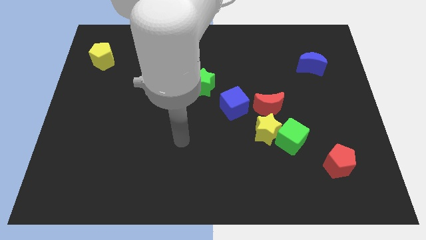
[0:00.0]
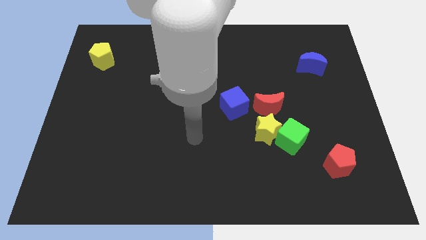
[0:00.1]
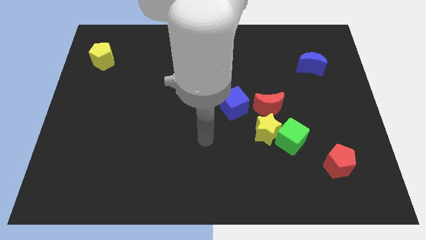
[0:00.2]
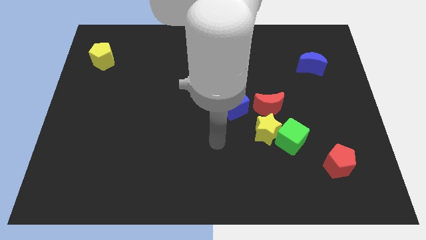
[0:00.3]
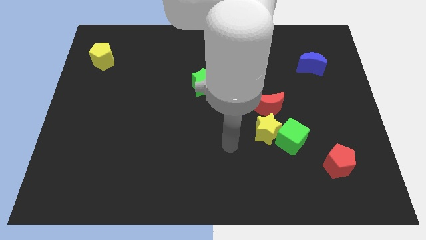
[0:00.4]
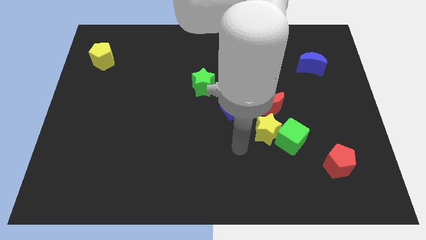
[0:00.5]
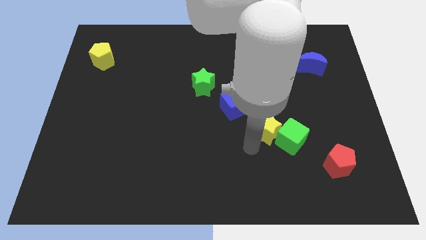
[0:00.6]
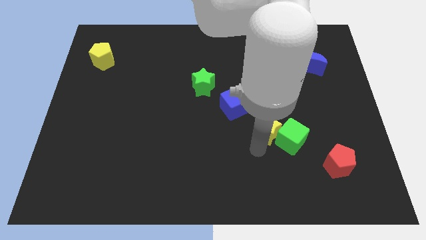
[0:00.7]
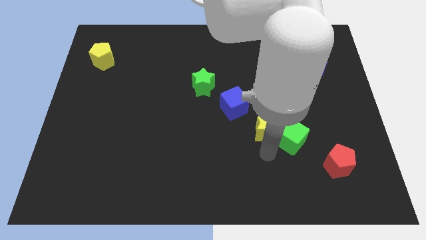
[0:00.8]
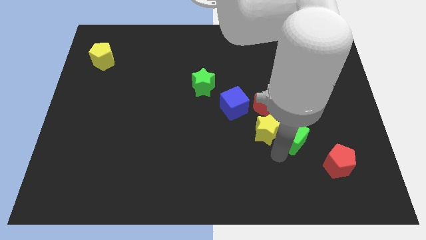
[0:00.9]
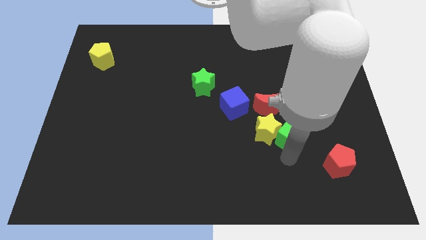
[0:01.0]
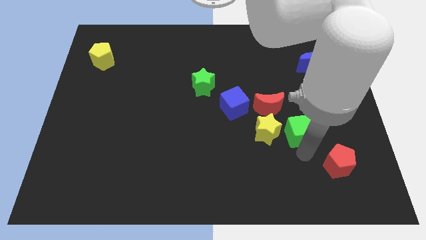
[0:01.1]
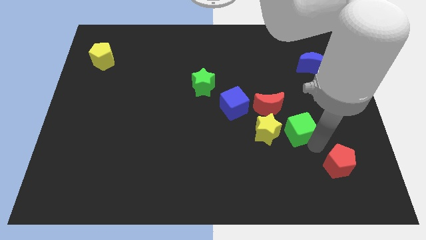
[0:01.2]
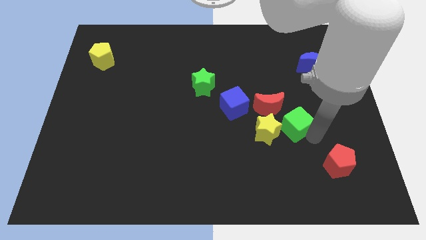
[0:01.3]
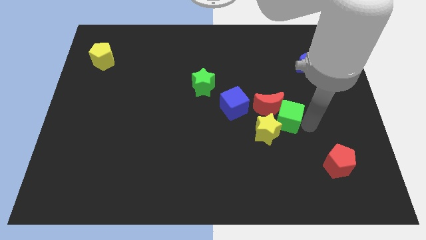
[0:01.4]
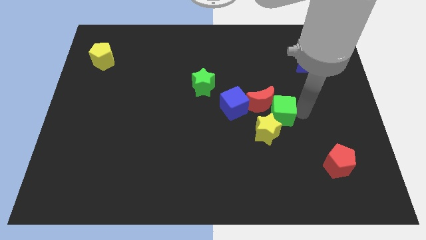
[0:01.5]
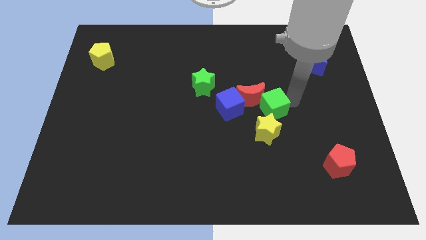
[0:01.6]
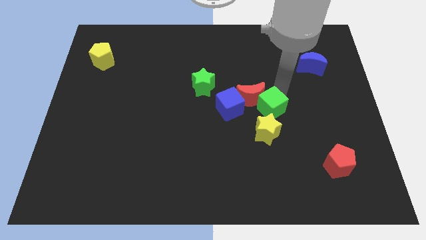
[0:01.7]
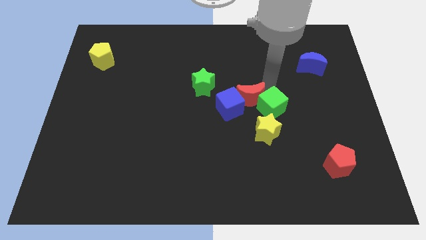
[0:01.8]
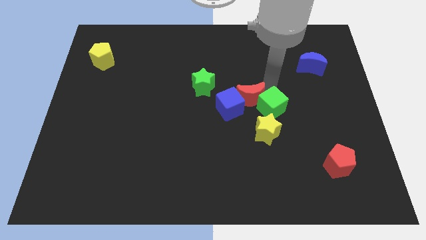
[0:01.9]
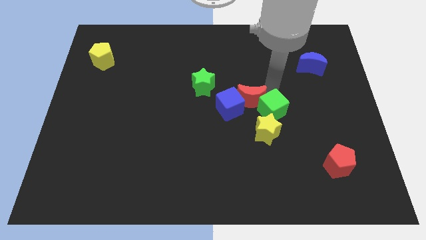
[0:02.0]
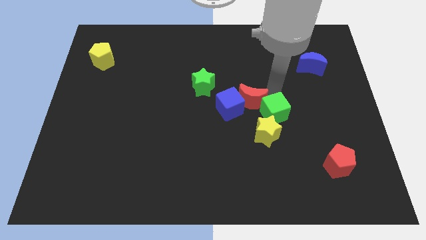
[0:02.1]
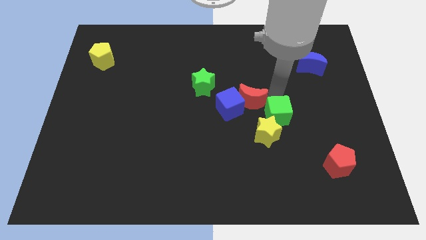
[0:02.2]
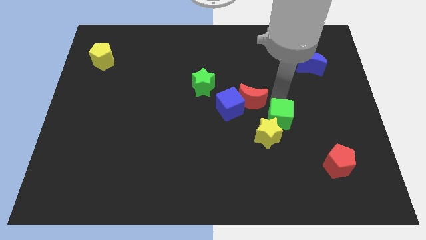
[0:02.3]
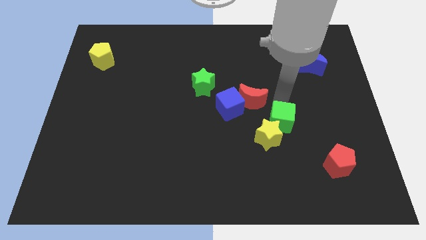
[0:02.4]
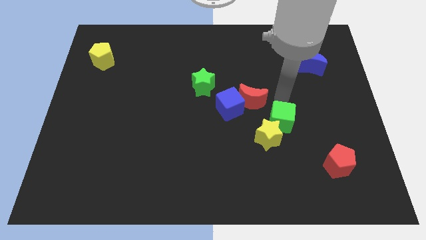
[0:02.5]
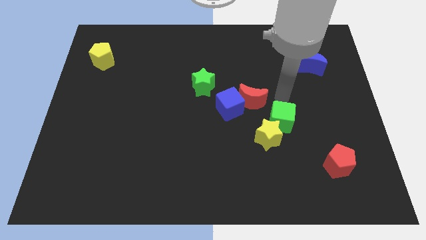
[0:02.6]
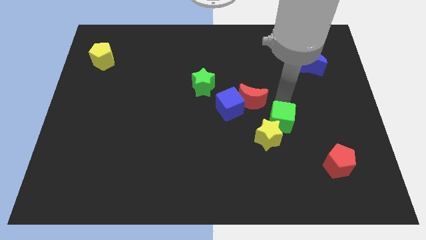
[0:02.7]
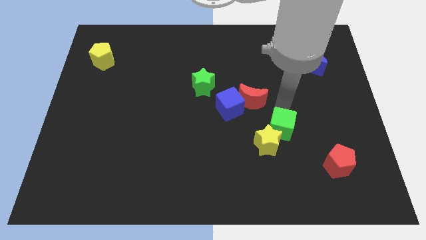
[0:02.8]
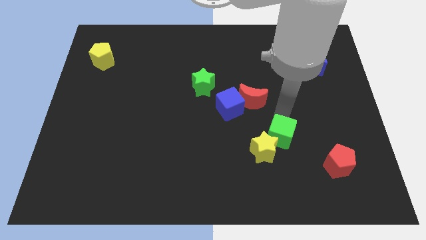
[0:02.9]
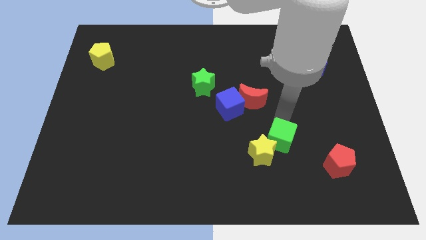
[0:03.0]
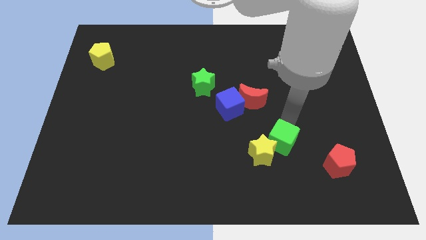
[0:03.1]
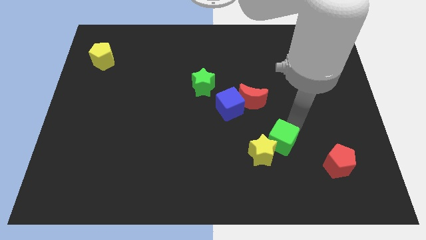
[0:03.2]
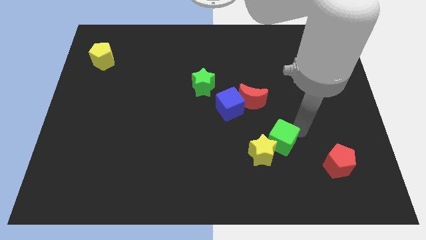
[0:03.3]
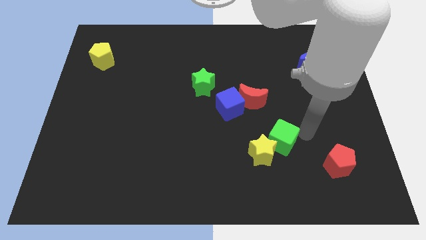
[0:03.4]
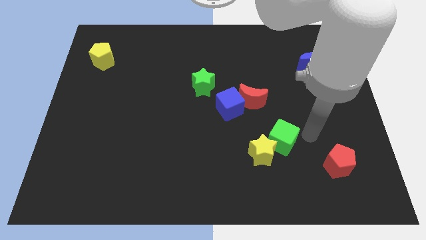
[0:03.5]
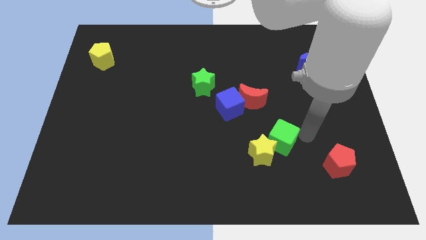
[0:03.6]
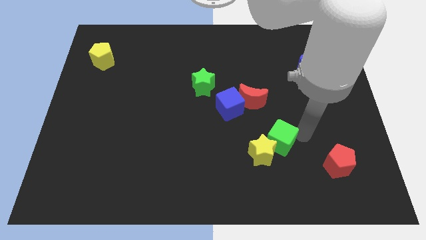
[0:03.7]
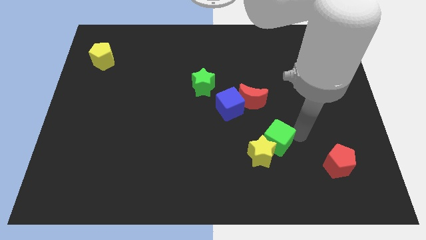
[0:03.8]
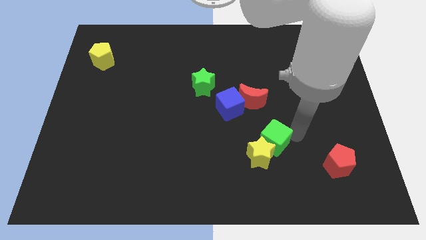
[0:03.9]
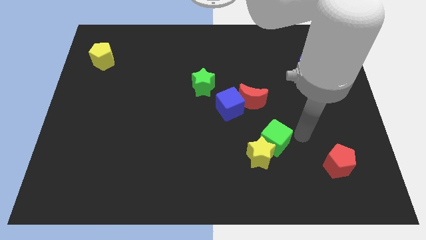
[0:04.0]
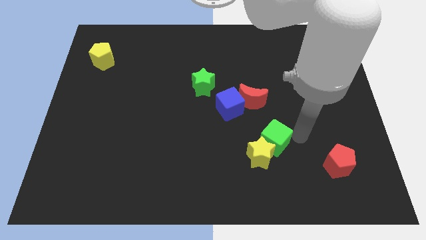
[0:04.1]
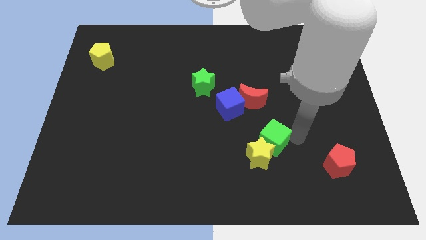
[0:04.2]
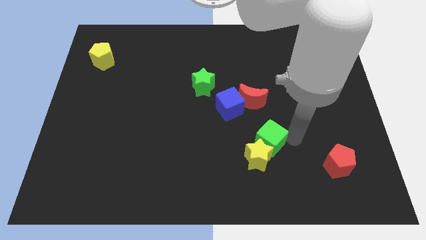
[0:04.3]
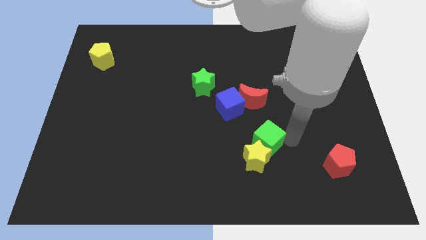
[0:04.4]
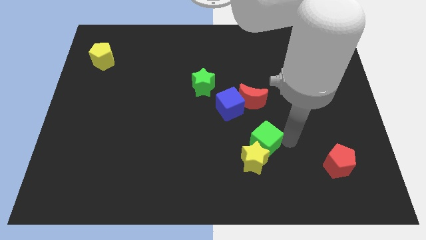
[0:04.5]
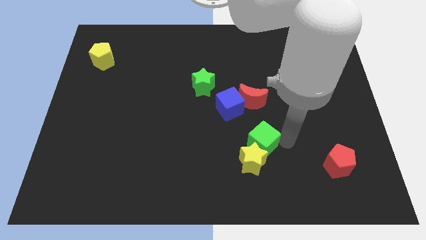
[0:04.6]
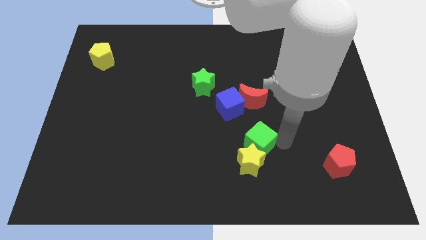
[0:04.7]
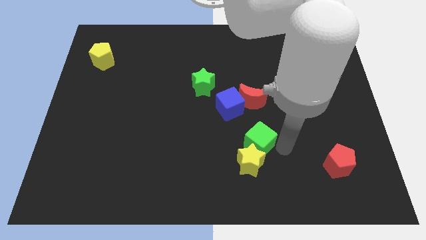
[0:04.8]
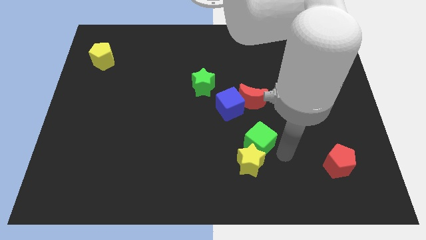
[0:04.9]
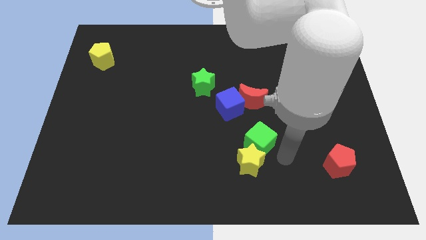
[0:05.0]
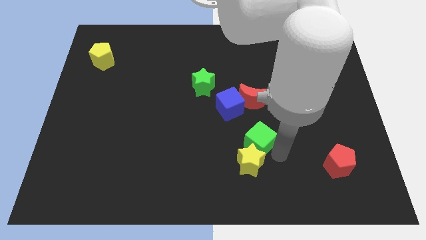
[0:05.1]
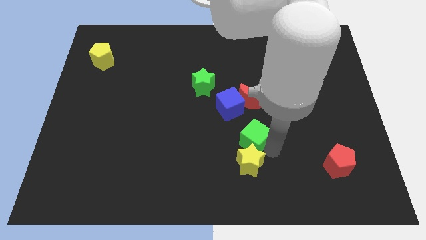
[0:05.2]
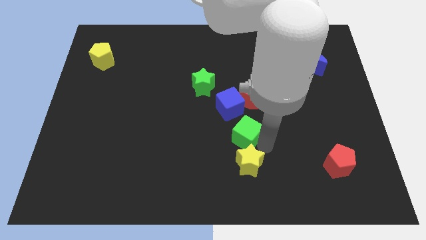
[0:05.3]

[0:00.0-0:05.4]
put the green cube to the middle of the board

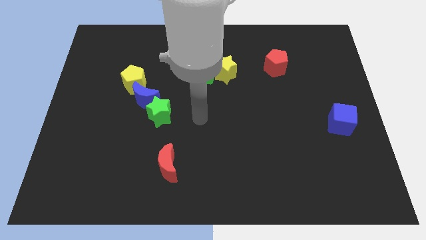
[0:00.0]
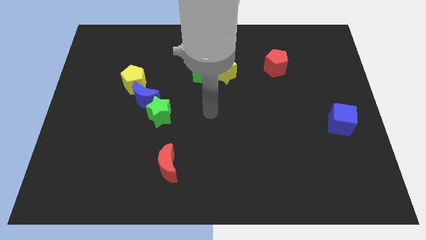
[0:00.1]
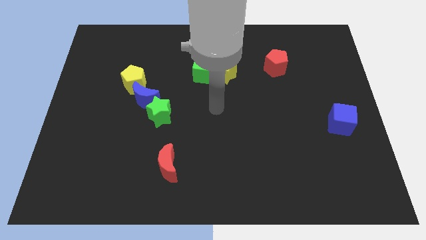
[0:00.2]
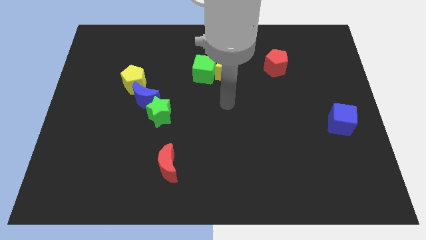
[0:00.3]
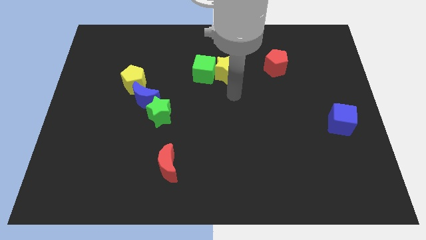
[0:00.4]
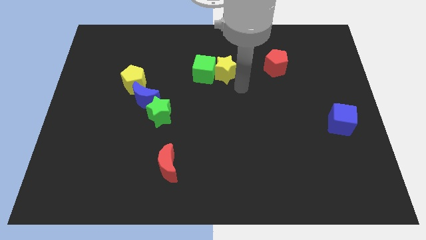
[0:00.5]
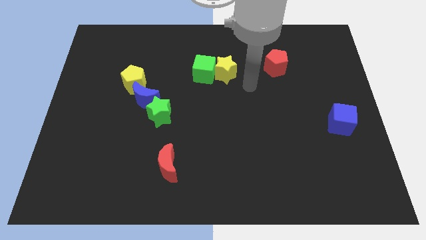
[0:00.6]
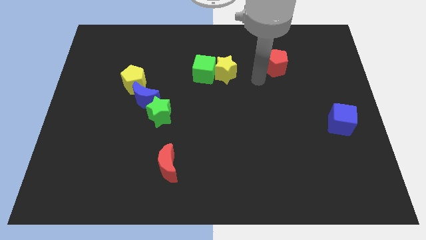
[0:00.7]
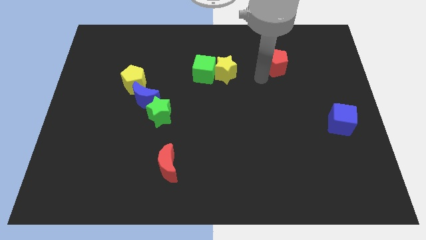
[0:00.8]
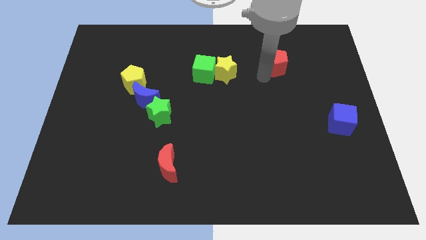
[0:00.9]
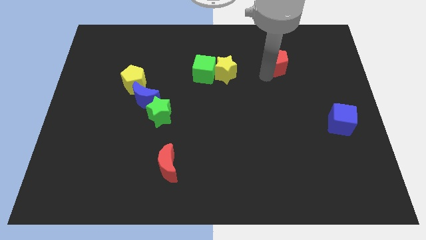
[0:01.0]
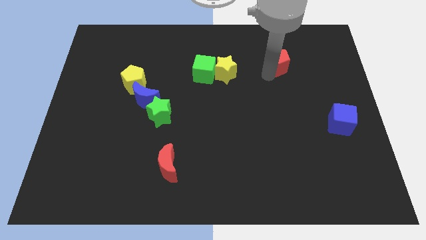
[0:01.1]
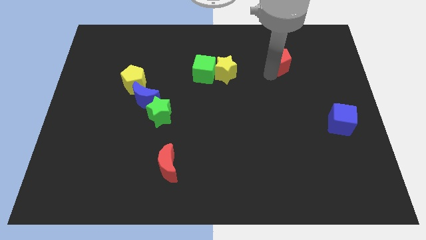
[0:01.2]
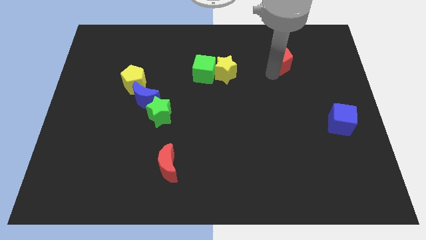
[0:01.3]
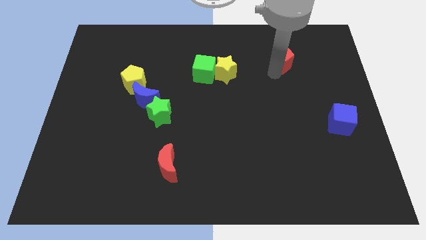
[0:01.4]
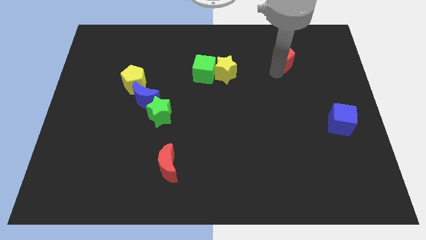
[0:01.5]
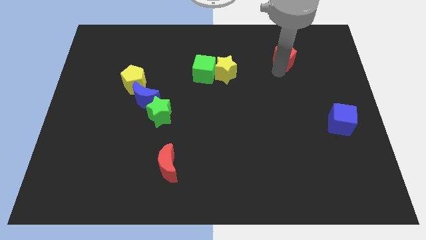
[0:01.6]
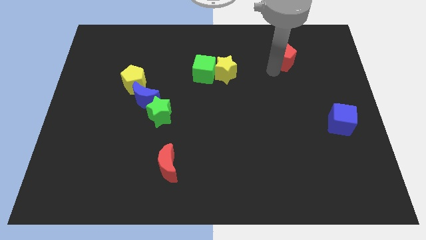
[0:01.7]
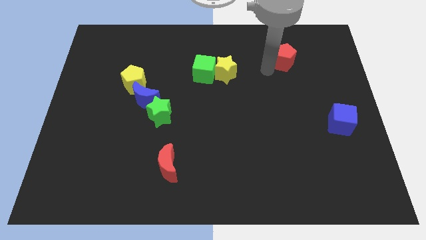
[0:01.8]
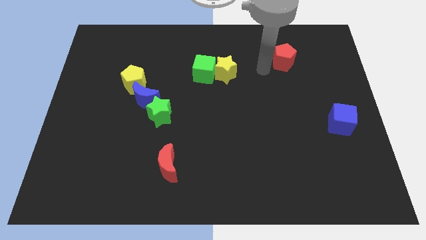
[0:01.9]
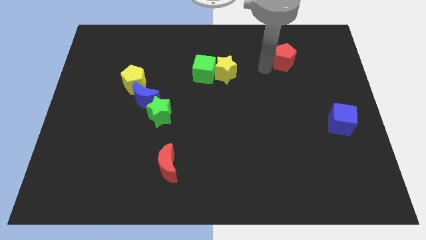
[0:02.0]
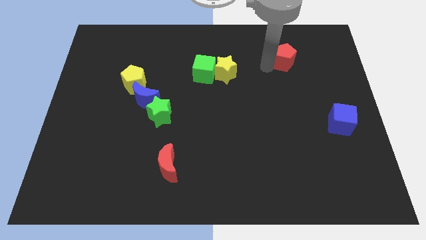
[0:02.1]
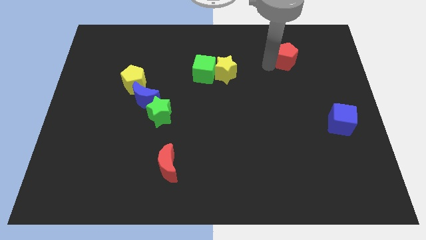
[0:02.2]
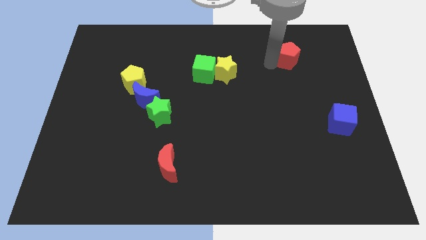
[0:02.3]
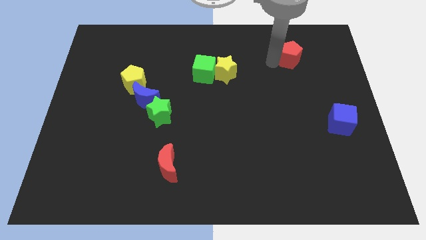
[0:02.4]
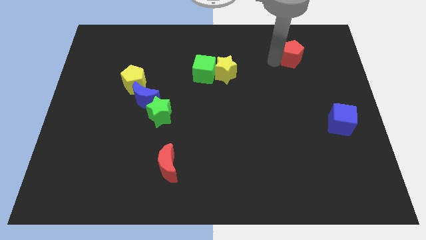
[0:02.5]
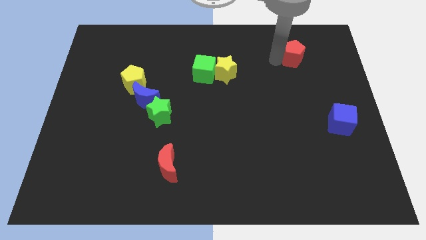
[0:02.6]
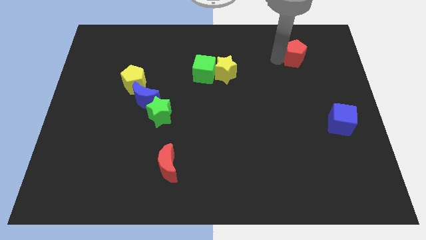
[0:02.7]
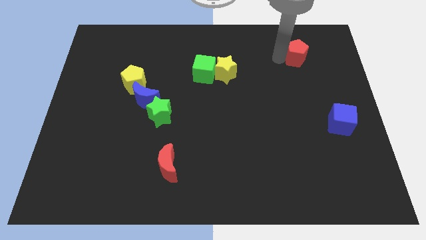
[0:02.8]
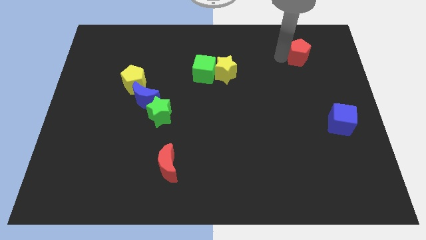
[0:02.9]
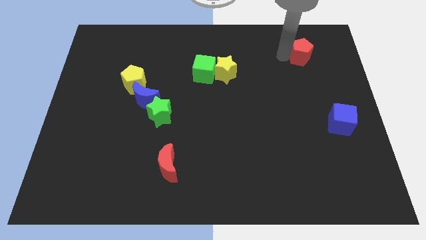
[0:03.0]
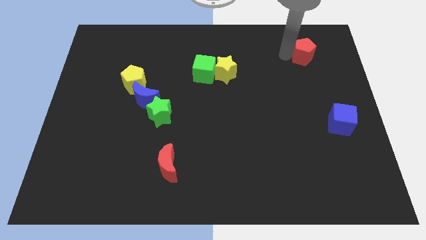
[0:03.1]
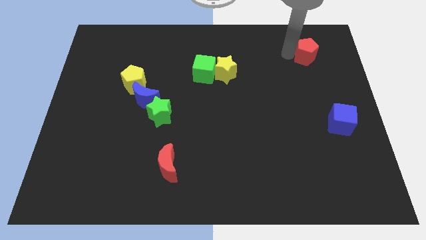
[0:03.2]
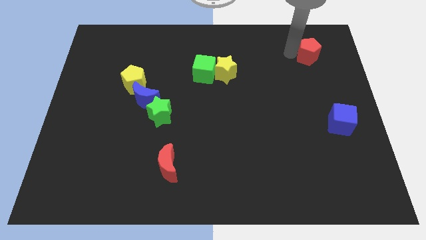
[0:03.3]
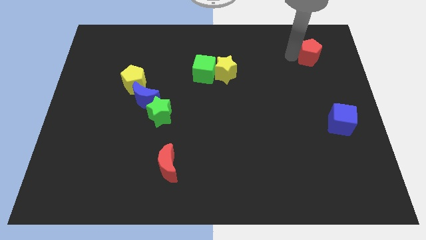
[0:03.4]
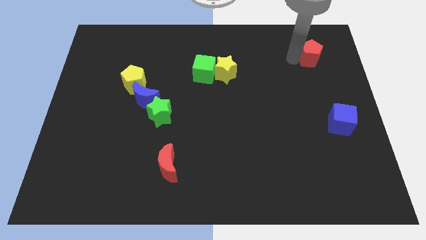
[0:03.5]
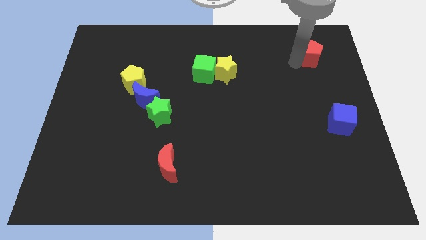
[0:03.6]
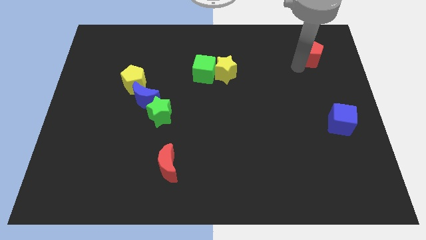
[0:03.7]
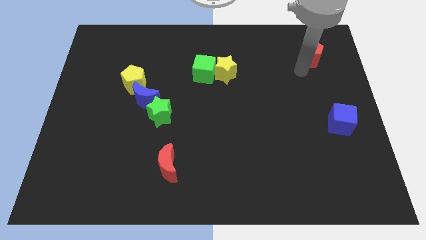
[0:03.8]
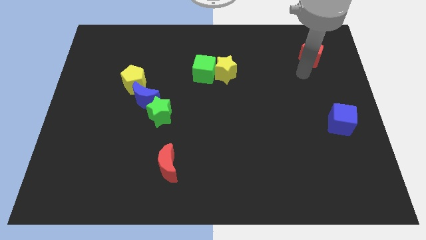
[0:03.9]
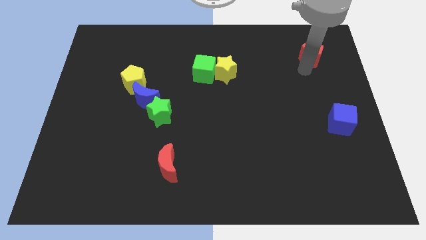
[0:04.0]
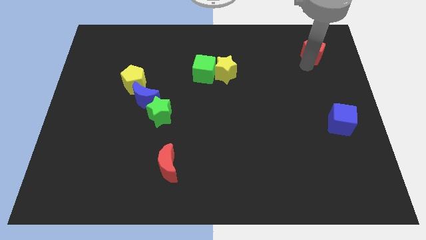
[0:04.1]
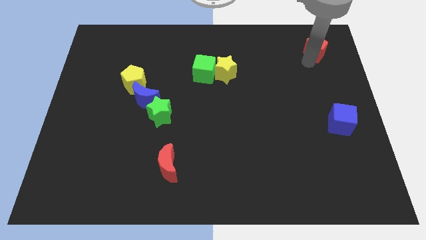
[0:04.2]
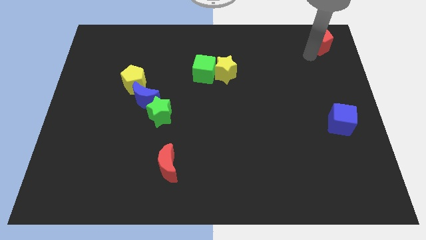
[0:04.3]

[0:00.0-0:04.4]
push the red pentagon to the top right
